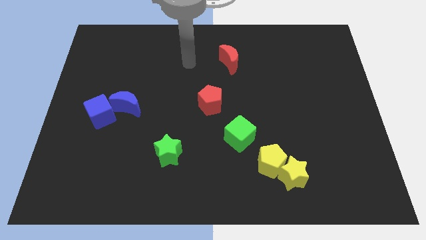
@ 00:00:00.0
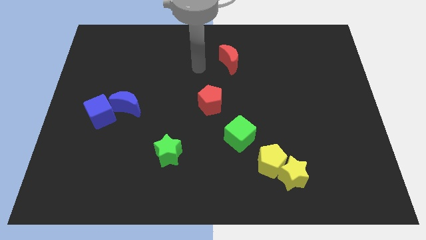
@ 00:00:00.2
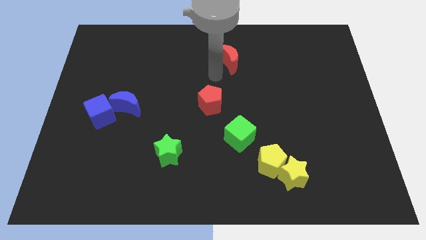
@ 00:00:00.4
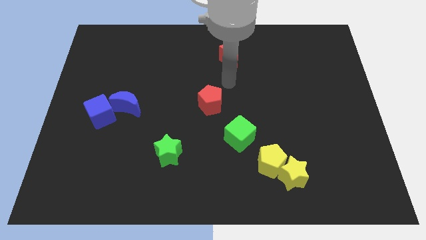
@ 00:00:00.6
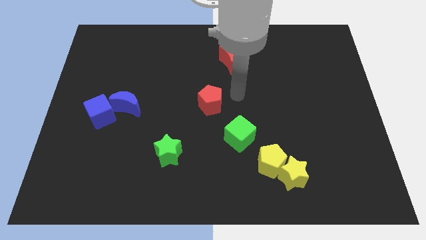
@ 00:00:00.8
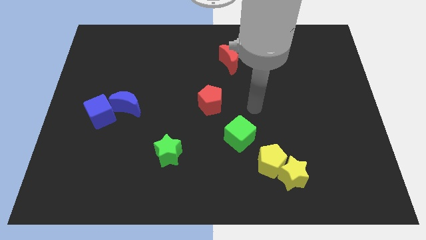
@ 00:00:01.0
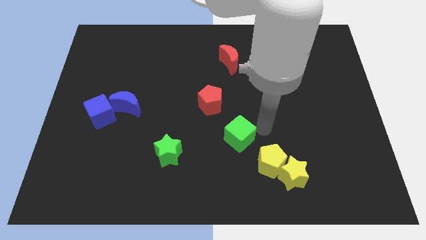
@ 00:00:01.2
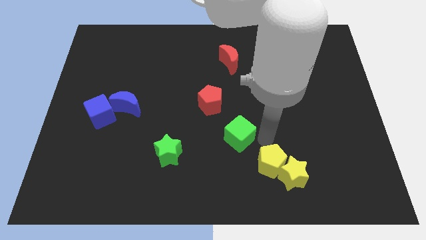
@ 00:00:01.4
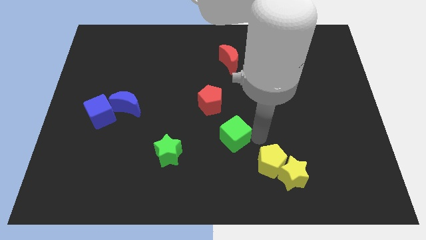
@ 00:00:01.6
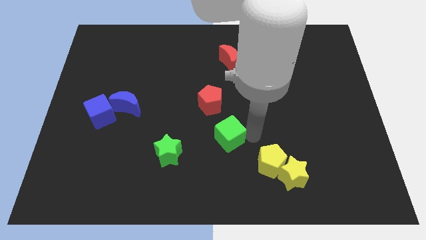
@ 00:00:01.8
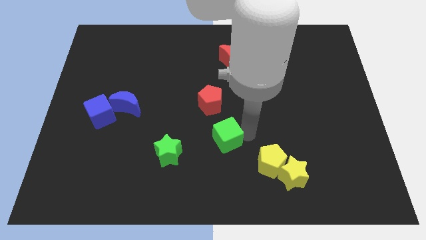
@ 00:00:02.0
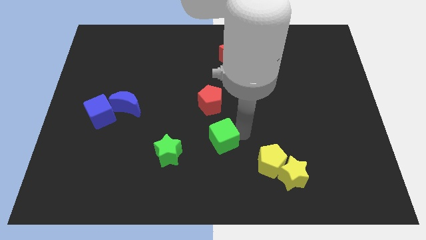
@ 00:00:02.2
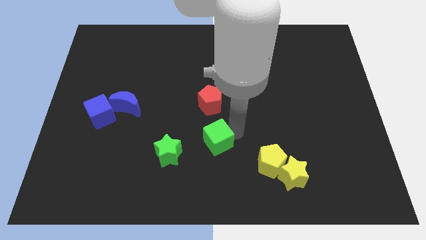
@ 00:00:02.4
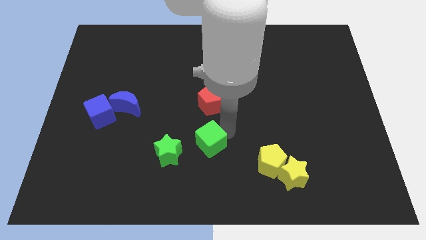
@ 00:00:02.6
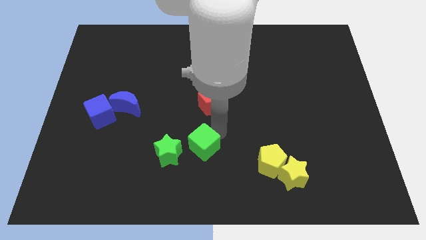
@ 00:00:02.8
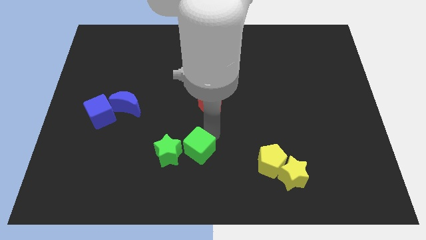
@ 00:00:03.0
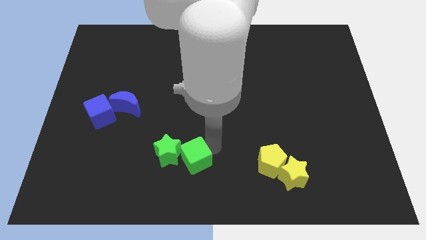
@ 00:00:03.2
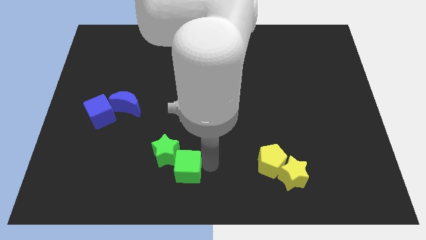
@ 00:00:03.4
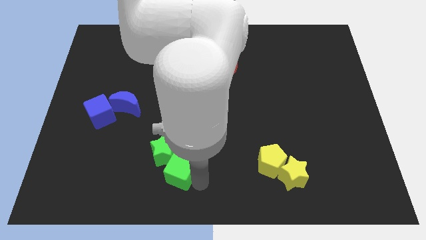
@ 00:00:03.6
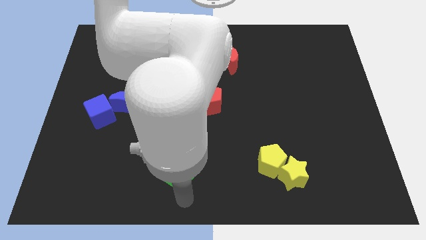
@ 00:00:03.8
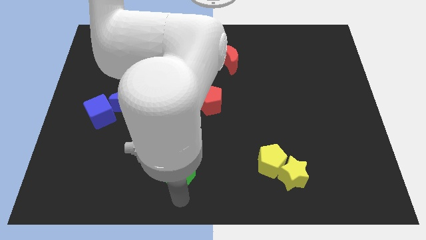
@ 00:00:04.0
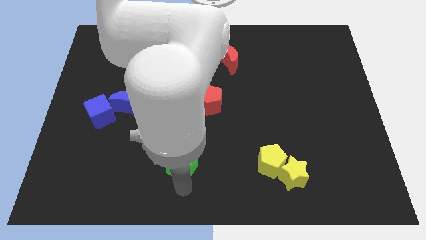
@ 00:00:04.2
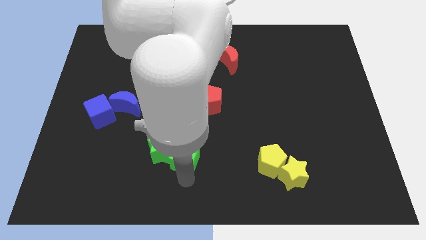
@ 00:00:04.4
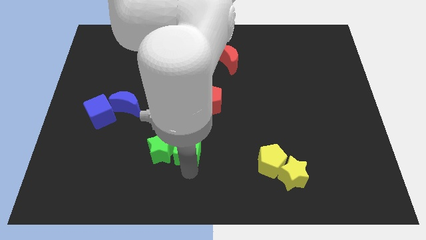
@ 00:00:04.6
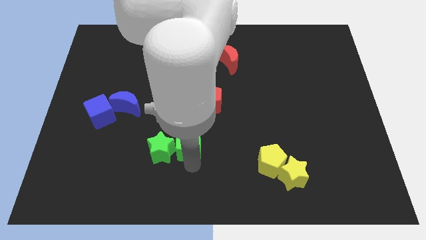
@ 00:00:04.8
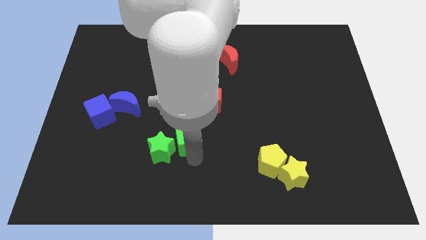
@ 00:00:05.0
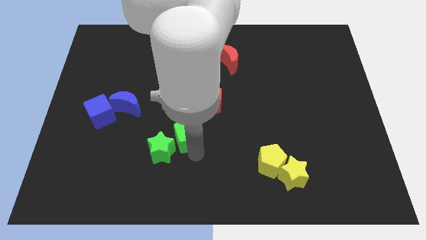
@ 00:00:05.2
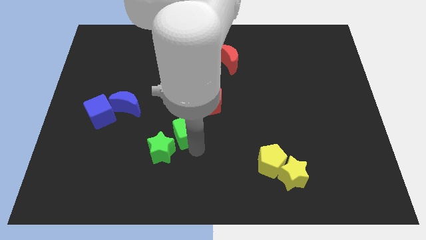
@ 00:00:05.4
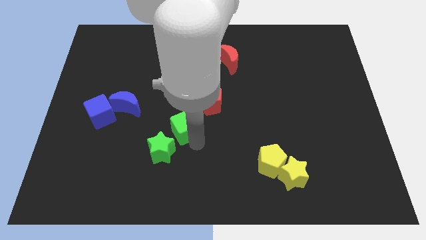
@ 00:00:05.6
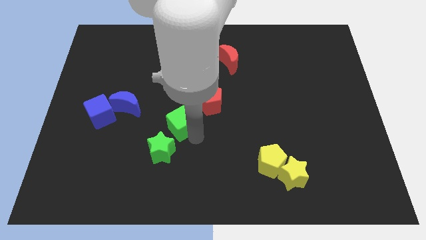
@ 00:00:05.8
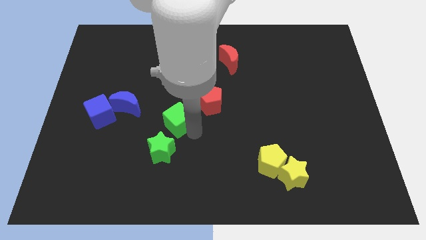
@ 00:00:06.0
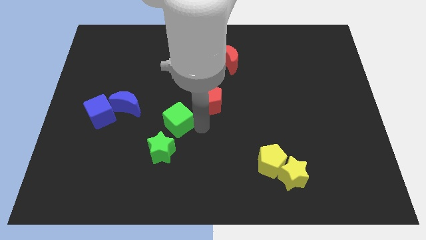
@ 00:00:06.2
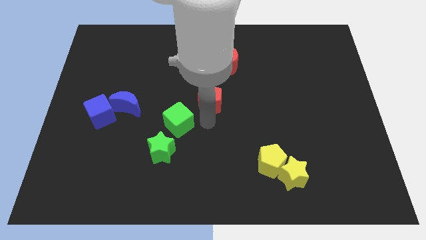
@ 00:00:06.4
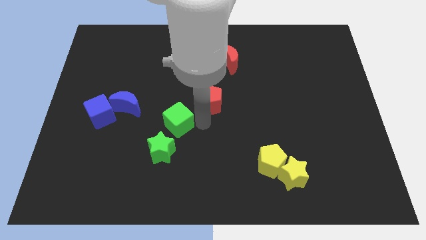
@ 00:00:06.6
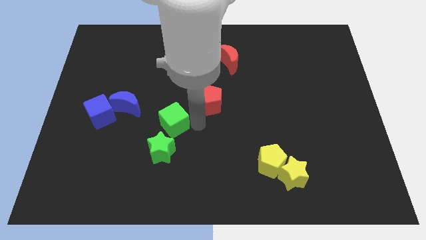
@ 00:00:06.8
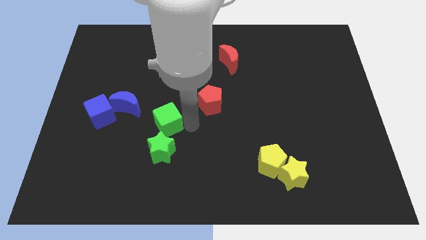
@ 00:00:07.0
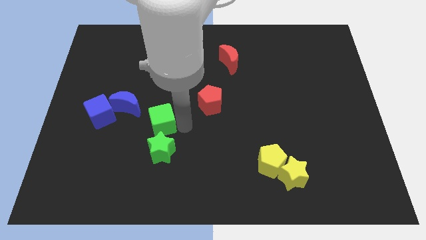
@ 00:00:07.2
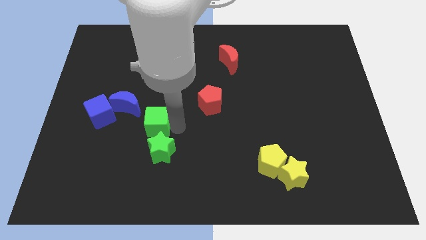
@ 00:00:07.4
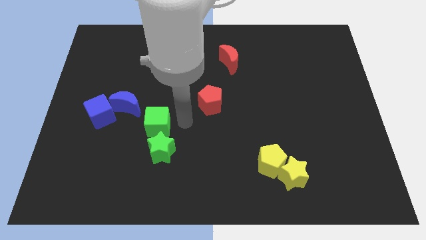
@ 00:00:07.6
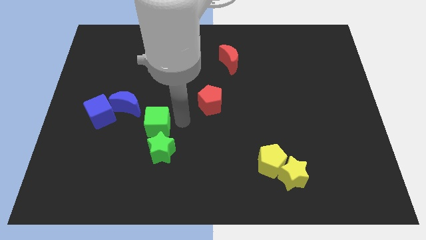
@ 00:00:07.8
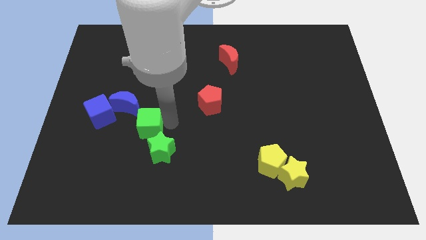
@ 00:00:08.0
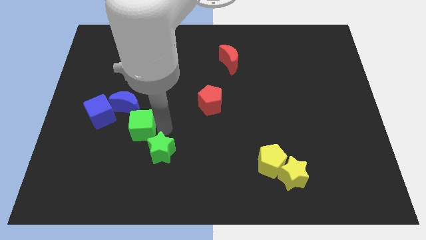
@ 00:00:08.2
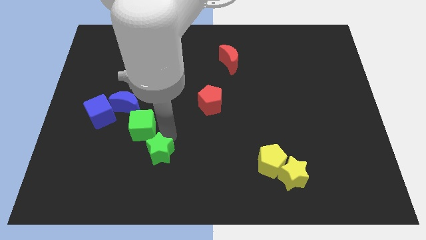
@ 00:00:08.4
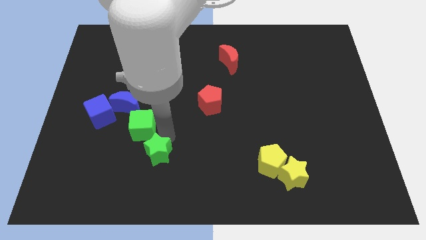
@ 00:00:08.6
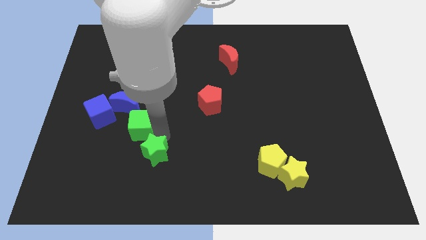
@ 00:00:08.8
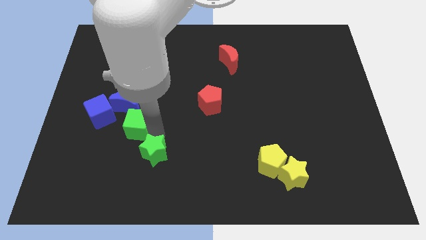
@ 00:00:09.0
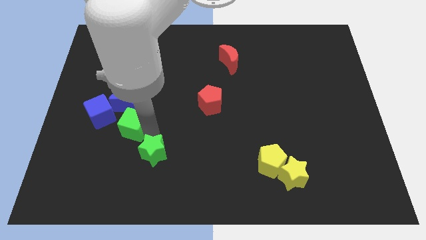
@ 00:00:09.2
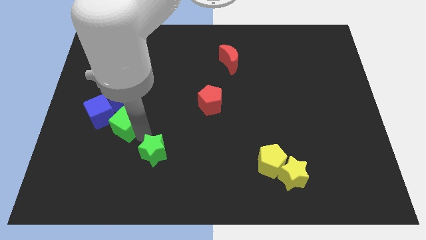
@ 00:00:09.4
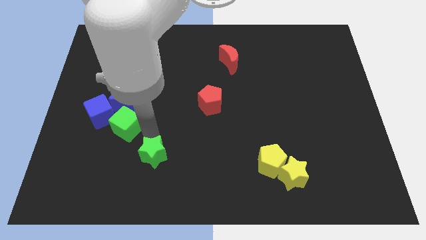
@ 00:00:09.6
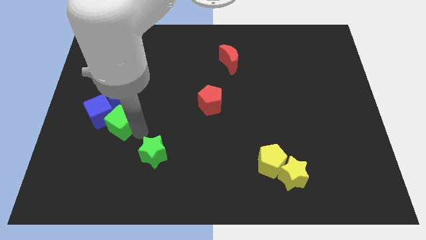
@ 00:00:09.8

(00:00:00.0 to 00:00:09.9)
push the green cube close to the blue cube

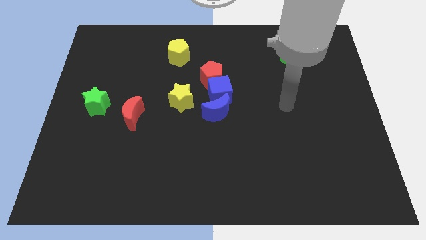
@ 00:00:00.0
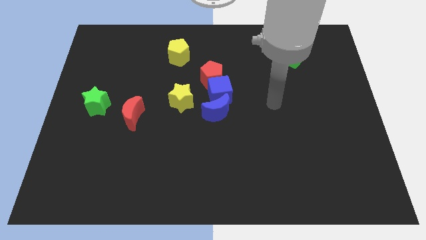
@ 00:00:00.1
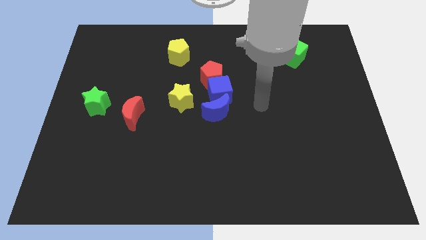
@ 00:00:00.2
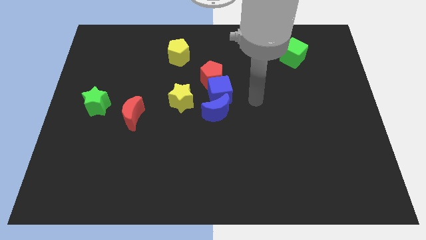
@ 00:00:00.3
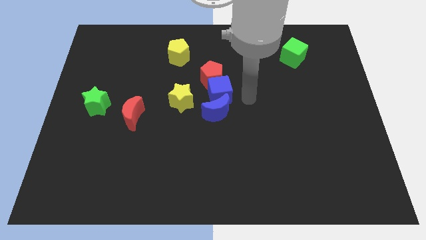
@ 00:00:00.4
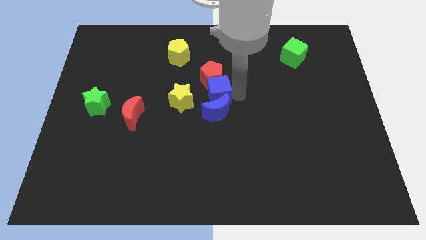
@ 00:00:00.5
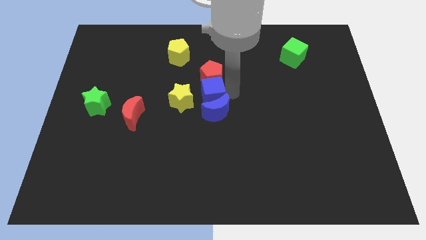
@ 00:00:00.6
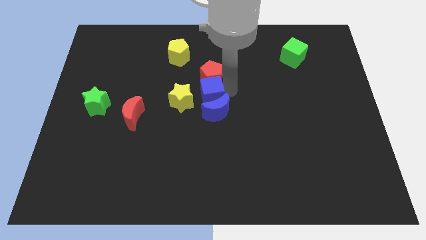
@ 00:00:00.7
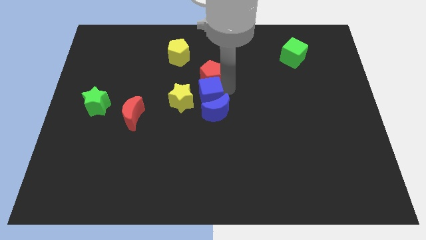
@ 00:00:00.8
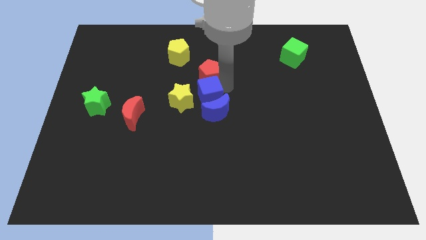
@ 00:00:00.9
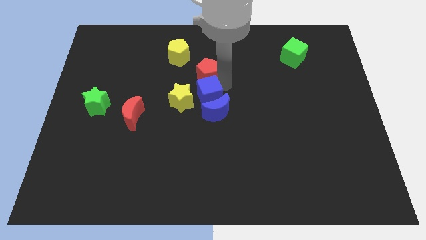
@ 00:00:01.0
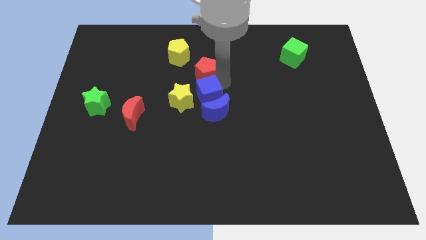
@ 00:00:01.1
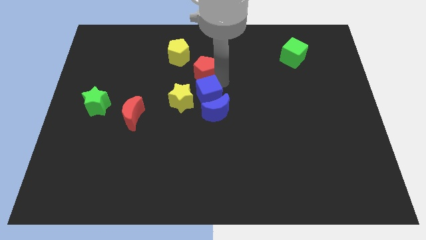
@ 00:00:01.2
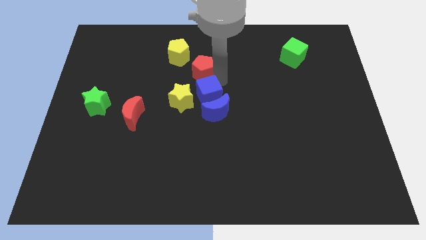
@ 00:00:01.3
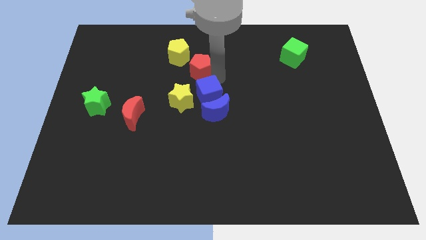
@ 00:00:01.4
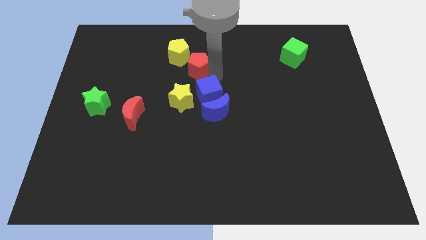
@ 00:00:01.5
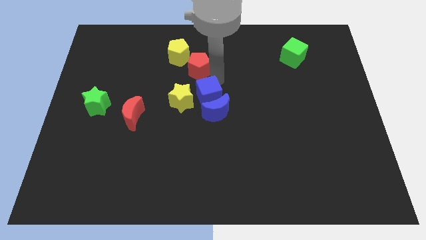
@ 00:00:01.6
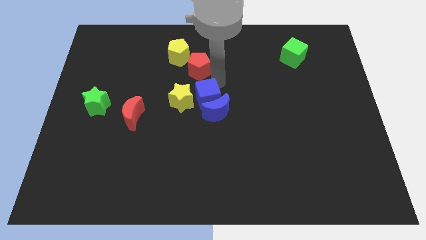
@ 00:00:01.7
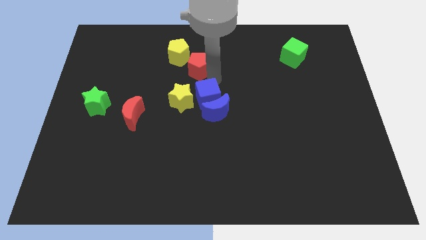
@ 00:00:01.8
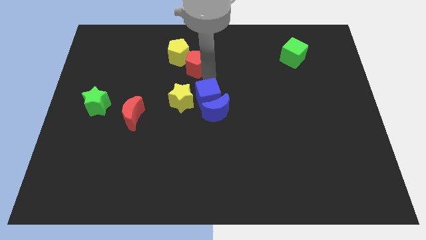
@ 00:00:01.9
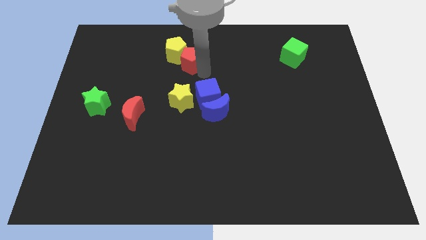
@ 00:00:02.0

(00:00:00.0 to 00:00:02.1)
put the red pentagon to the yellow pentagon
